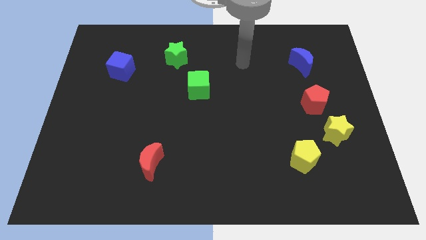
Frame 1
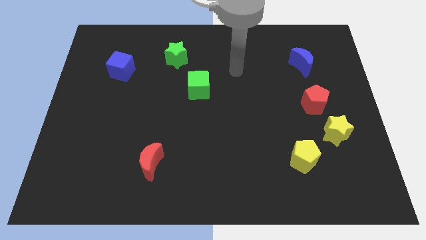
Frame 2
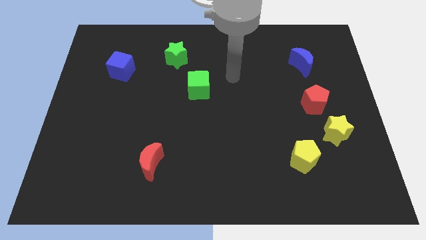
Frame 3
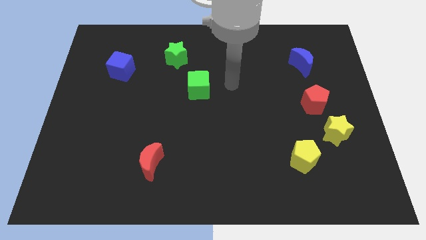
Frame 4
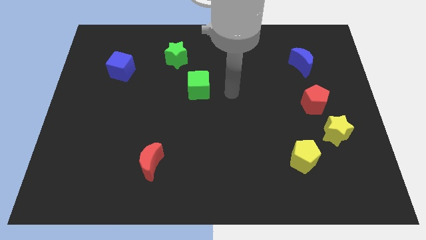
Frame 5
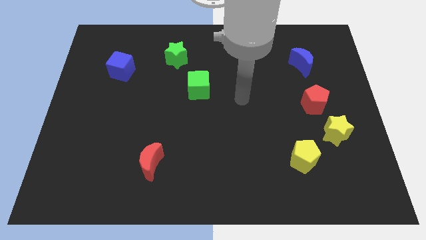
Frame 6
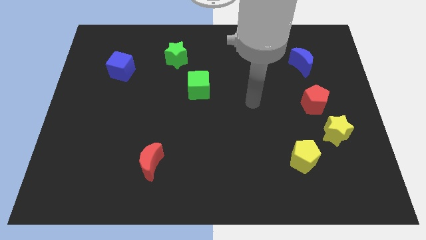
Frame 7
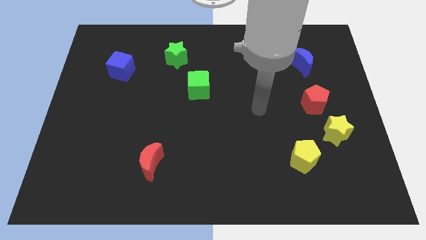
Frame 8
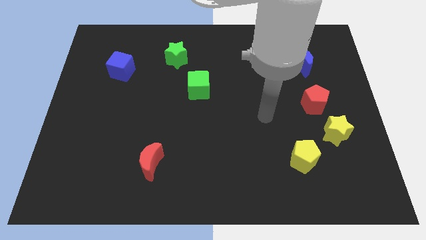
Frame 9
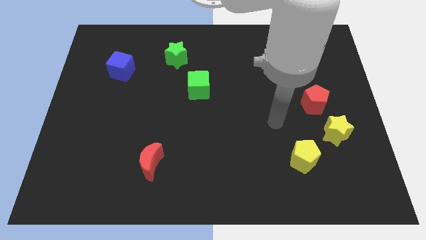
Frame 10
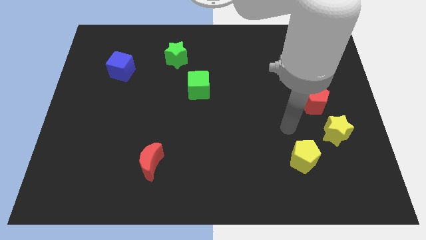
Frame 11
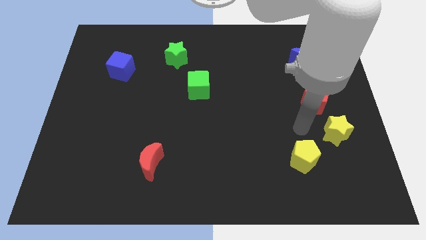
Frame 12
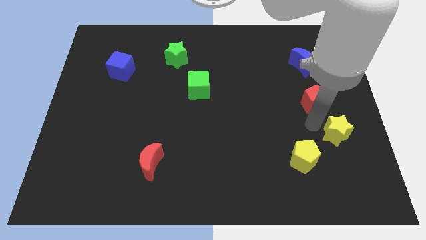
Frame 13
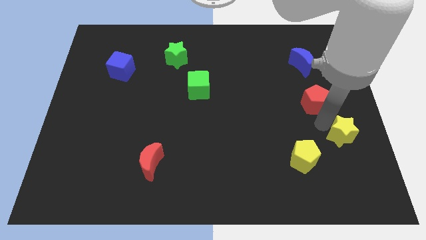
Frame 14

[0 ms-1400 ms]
move the red pentagon away from the yellow star

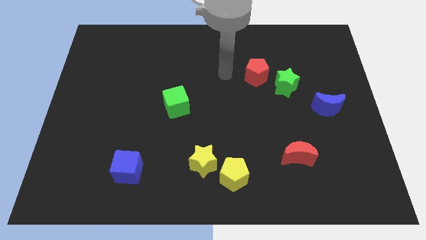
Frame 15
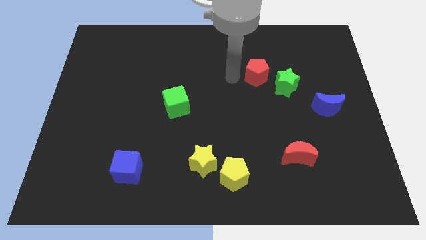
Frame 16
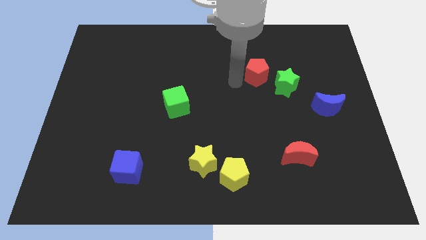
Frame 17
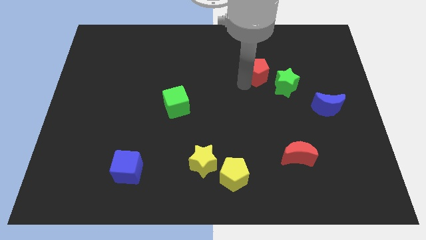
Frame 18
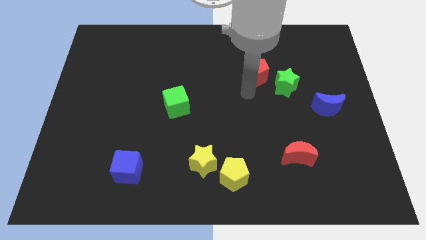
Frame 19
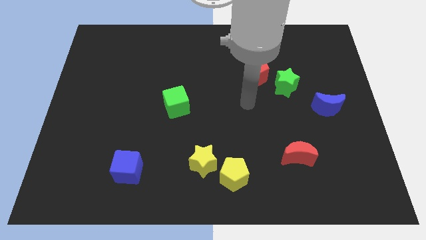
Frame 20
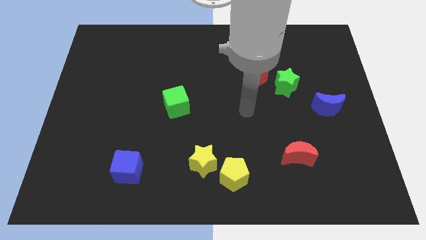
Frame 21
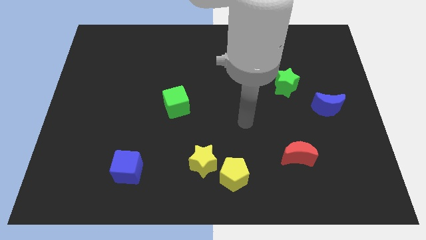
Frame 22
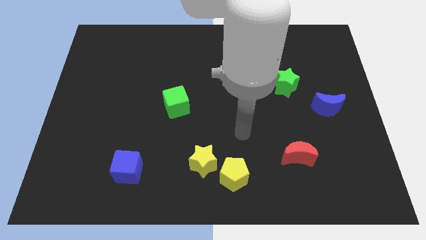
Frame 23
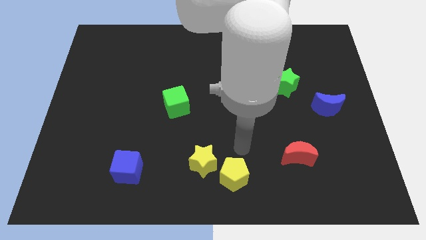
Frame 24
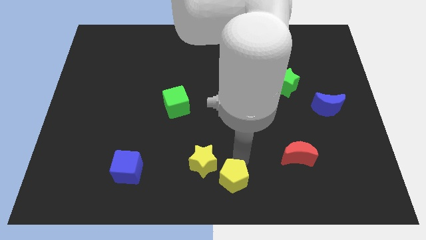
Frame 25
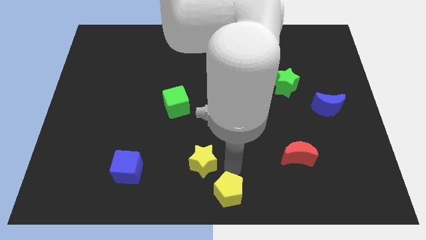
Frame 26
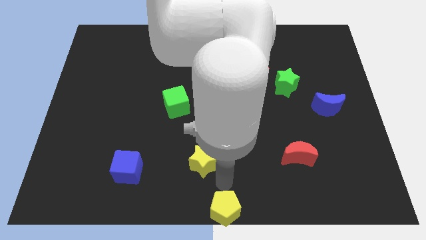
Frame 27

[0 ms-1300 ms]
move the yellow star away from the yellow pentagon

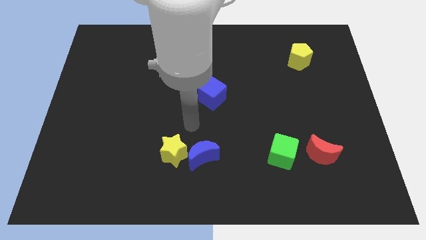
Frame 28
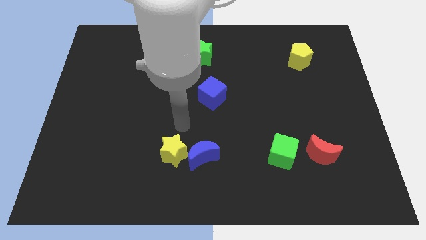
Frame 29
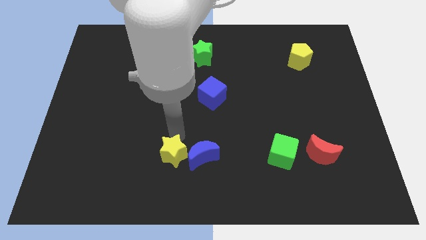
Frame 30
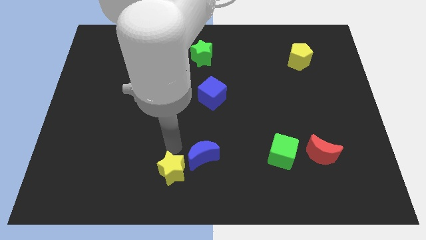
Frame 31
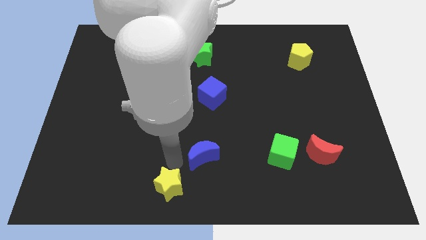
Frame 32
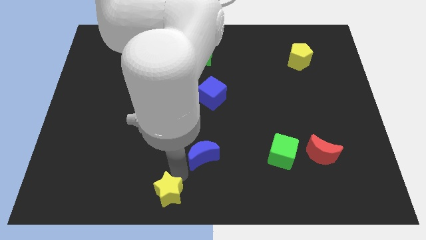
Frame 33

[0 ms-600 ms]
move the blue moon away from the yellow star

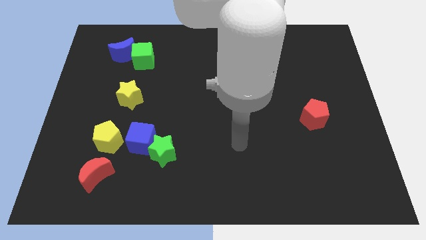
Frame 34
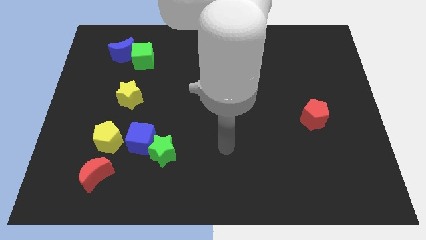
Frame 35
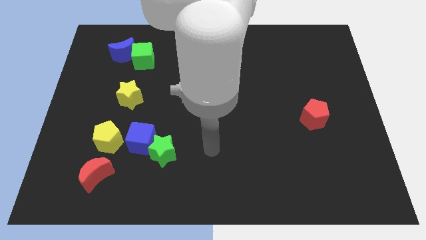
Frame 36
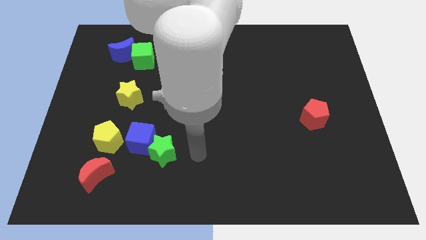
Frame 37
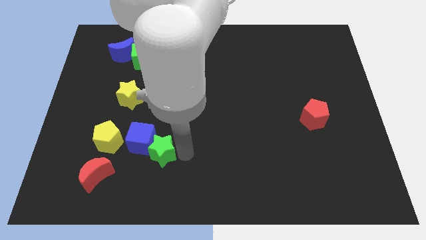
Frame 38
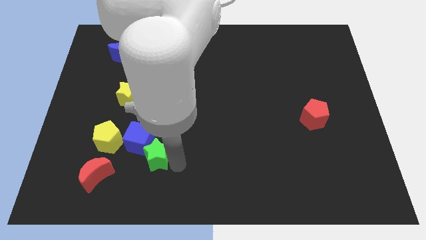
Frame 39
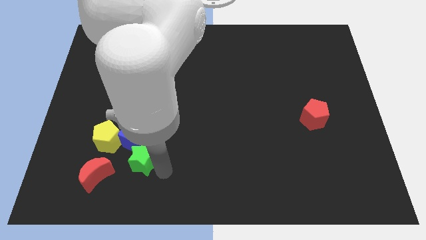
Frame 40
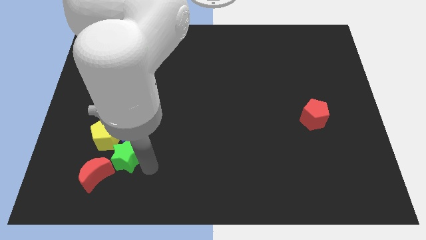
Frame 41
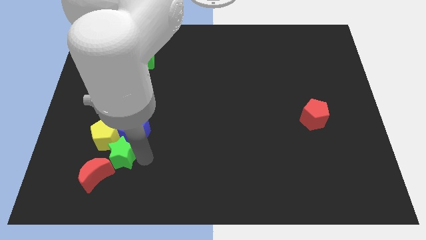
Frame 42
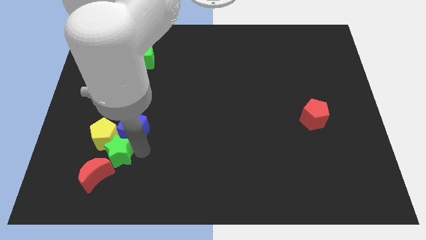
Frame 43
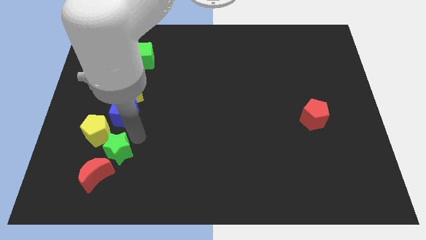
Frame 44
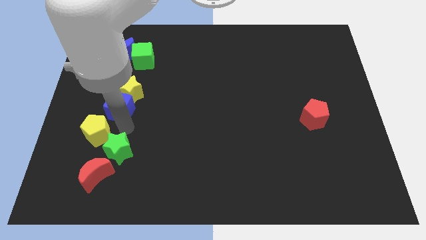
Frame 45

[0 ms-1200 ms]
separate the green star from the blue cube

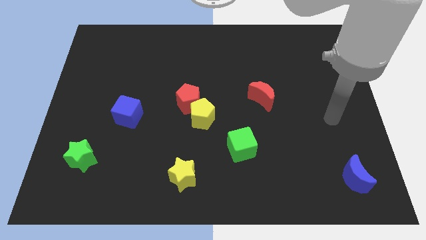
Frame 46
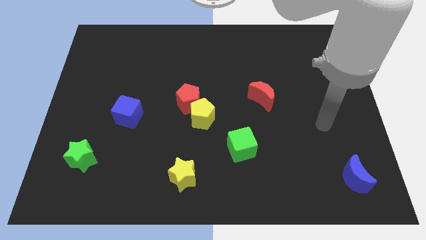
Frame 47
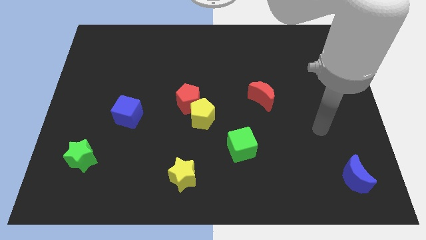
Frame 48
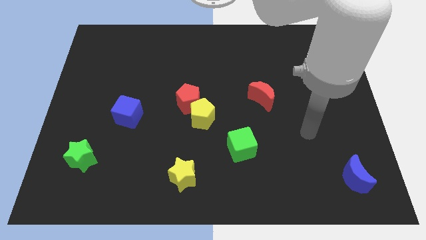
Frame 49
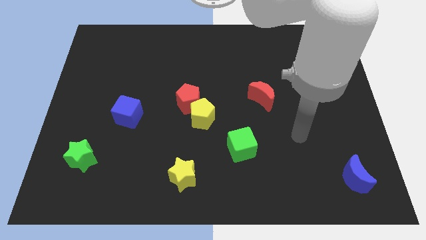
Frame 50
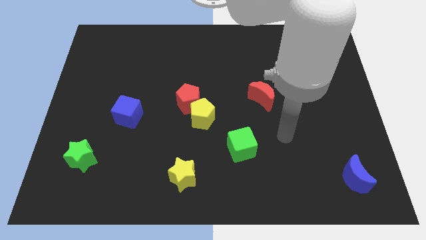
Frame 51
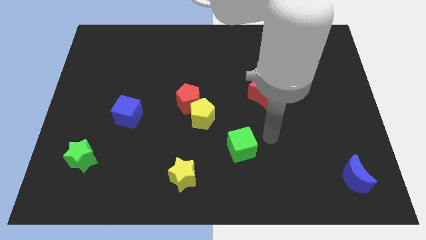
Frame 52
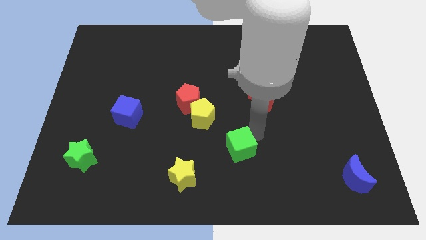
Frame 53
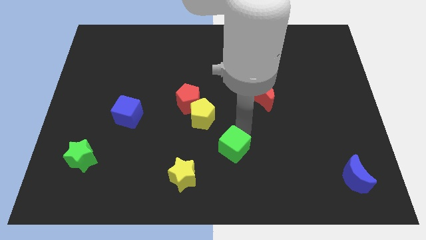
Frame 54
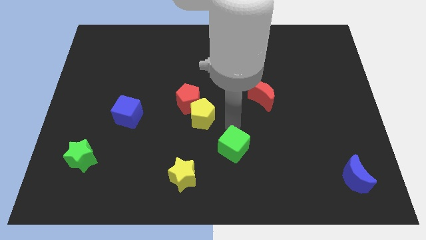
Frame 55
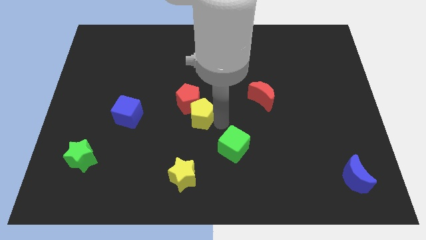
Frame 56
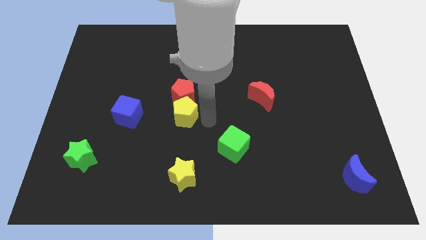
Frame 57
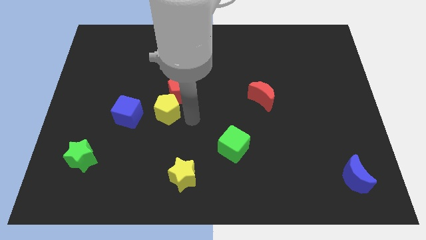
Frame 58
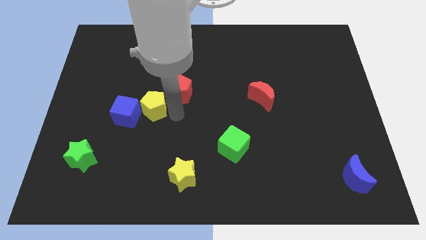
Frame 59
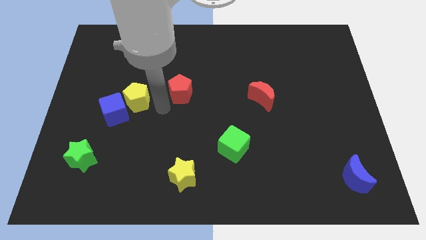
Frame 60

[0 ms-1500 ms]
pull the red pentagon apart from the yellow pentagon

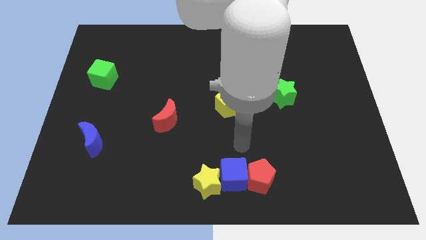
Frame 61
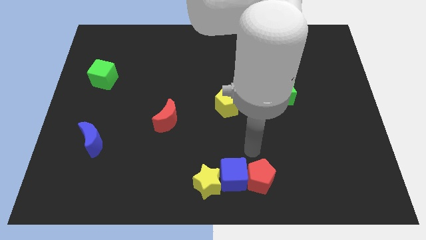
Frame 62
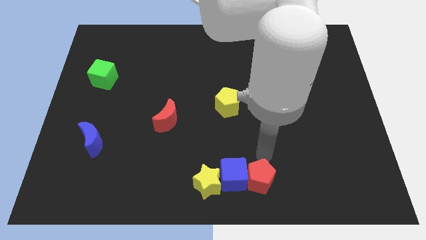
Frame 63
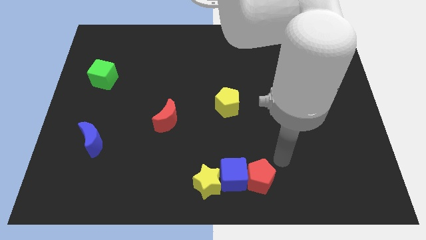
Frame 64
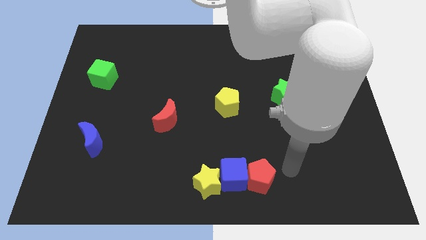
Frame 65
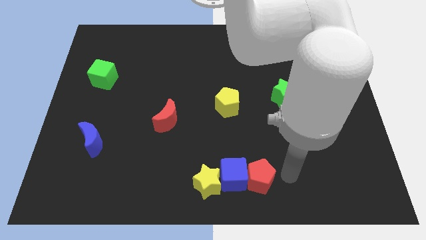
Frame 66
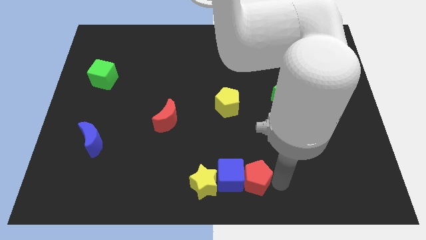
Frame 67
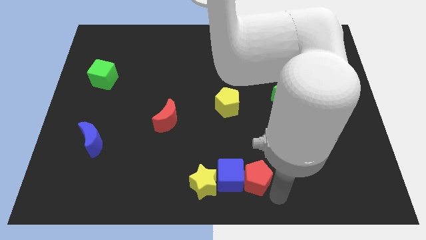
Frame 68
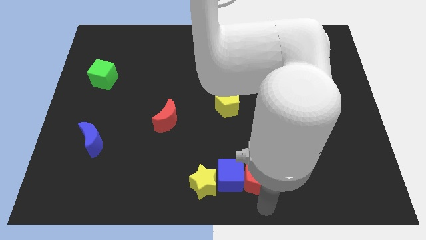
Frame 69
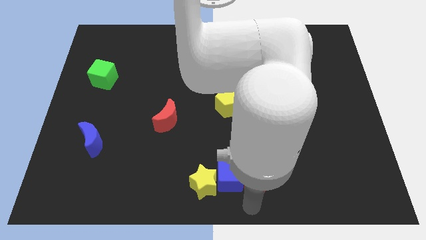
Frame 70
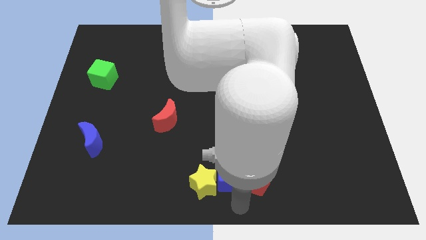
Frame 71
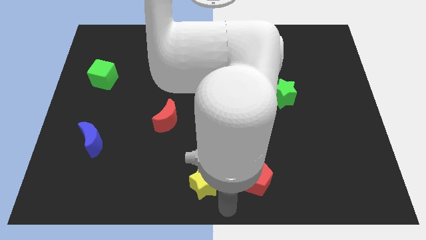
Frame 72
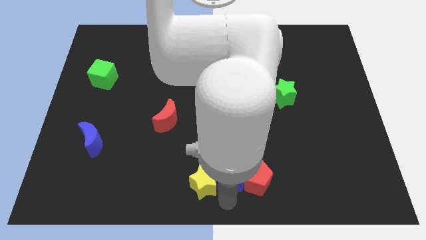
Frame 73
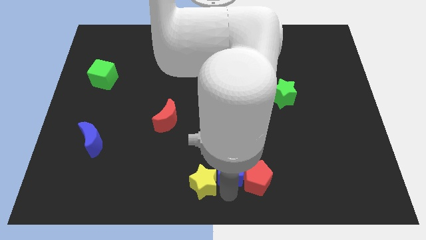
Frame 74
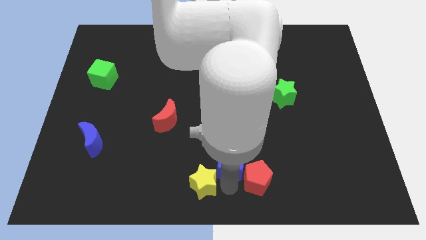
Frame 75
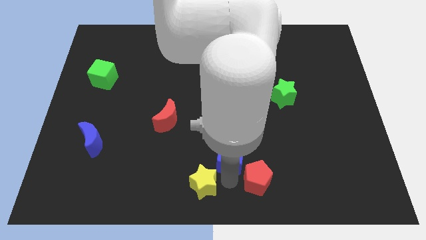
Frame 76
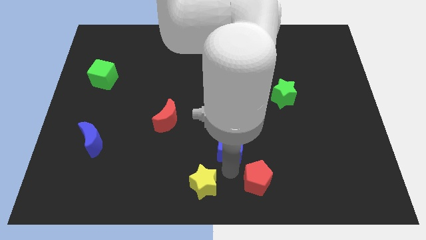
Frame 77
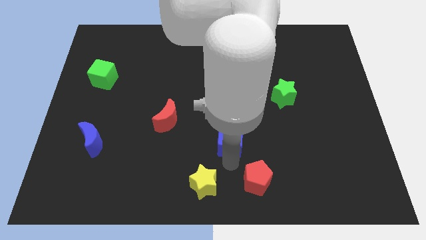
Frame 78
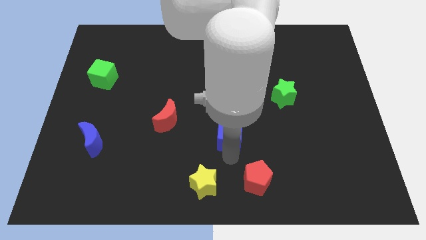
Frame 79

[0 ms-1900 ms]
move the blue cube away from the red pentagon and yellow star

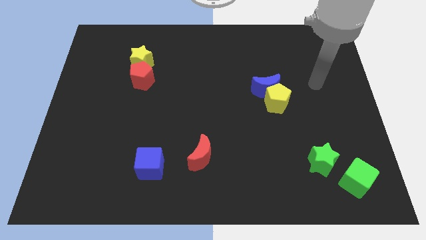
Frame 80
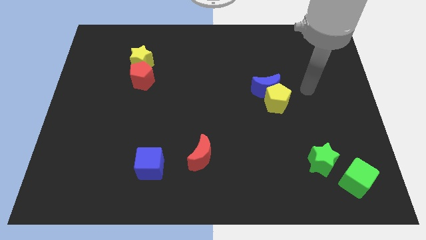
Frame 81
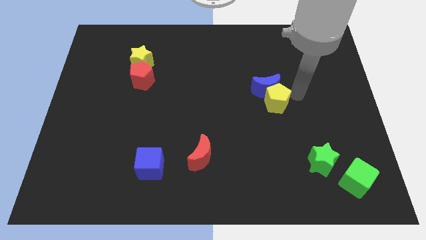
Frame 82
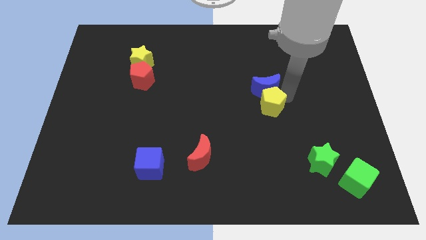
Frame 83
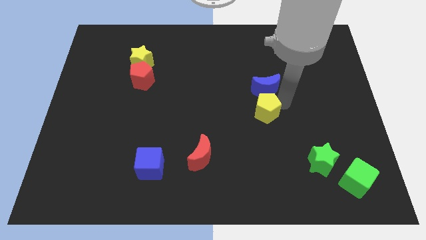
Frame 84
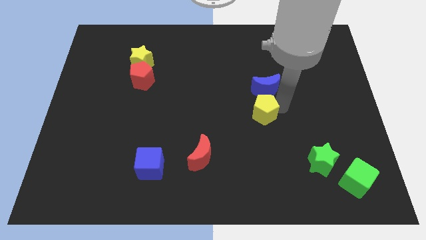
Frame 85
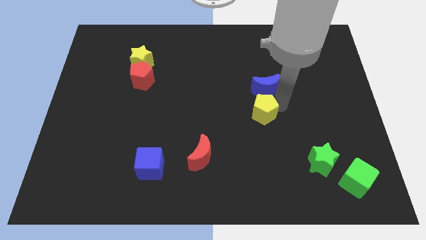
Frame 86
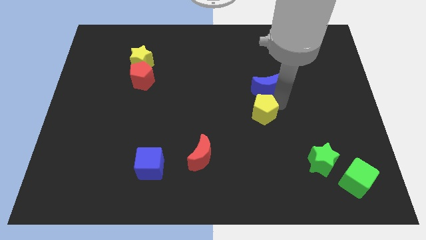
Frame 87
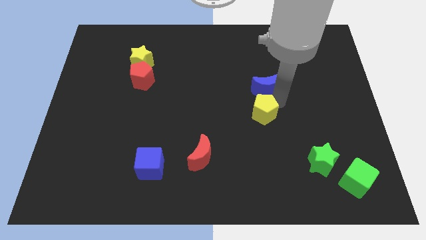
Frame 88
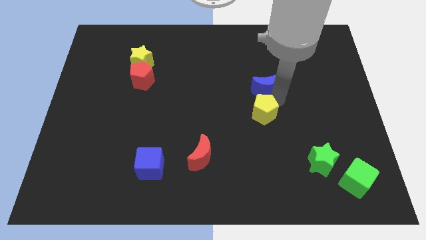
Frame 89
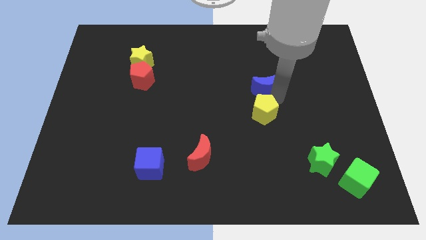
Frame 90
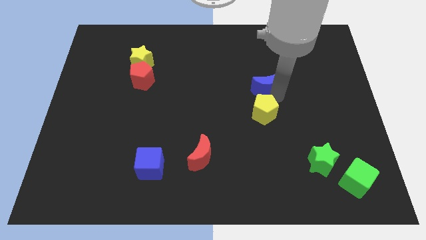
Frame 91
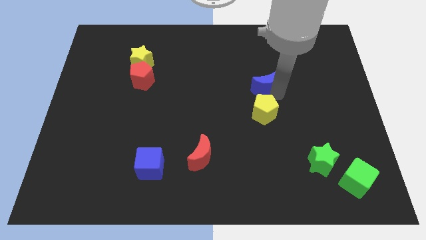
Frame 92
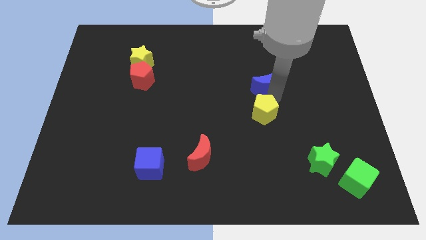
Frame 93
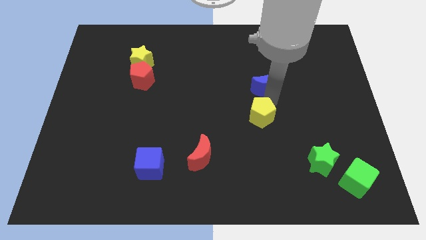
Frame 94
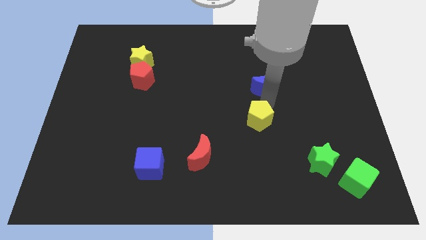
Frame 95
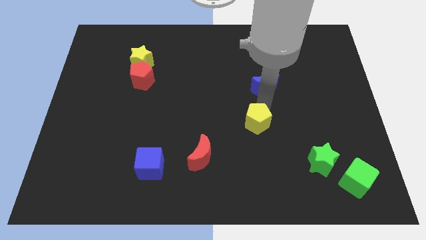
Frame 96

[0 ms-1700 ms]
move the blue moon away from the yellow pentagon
